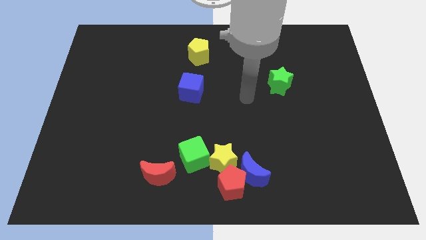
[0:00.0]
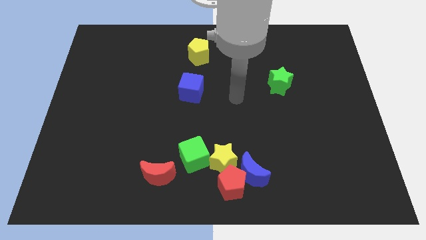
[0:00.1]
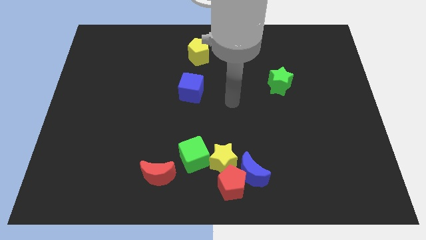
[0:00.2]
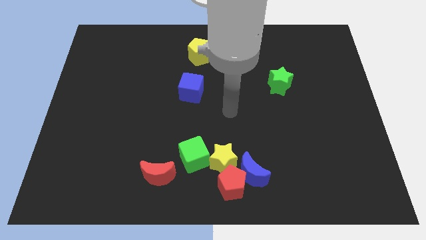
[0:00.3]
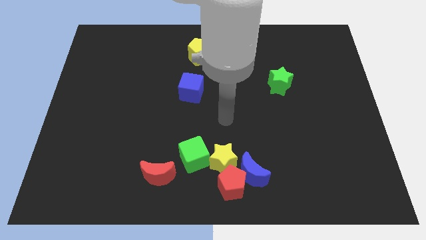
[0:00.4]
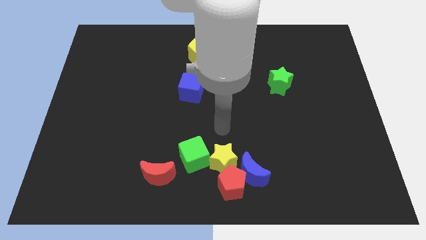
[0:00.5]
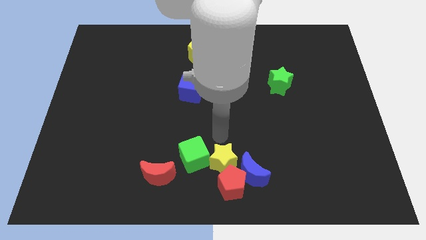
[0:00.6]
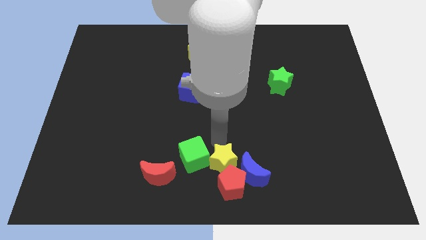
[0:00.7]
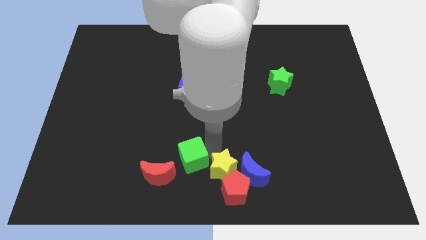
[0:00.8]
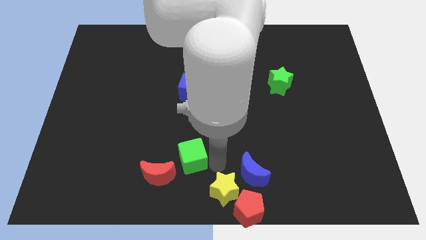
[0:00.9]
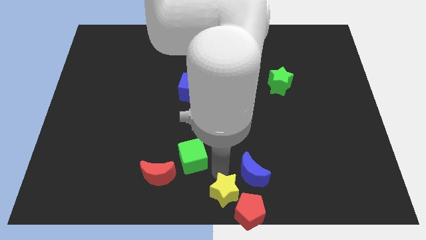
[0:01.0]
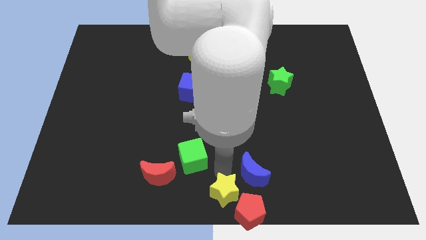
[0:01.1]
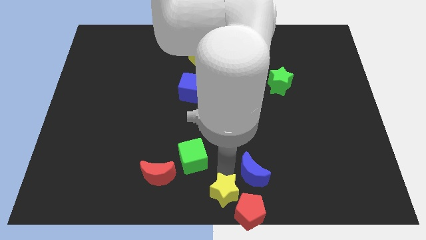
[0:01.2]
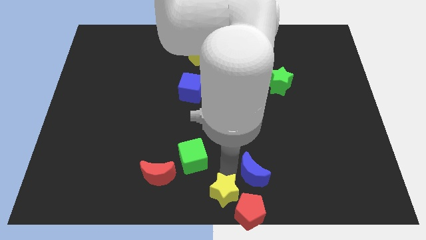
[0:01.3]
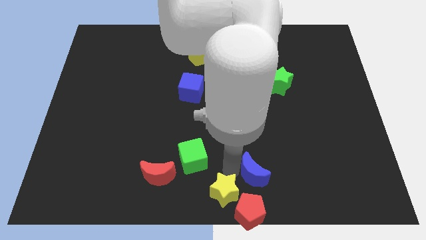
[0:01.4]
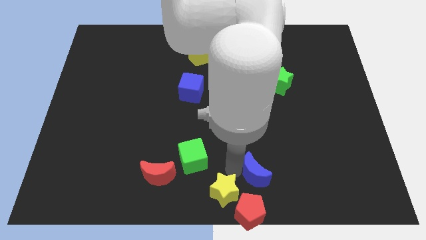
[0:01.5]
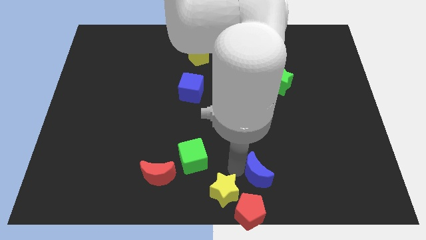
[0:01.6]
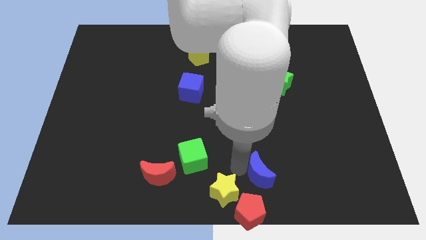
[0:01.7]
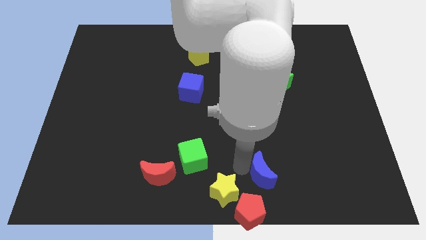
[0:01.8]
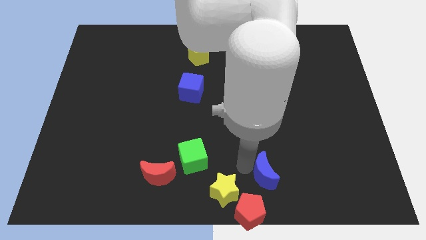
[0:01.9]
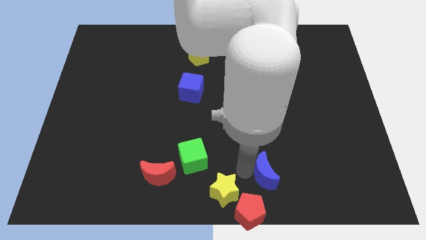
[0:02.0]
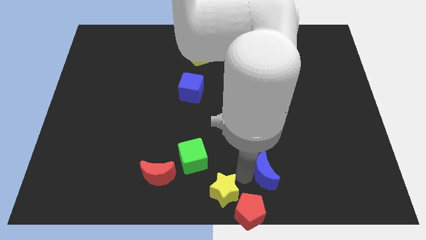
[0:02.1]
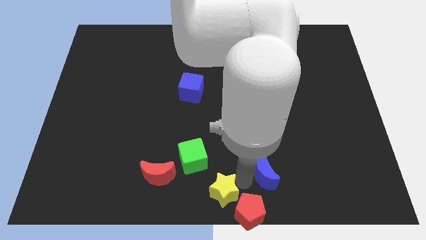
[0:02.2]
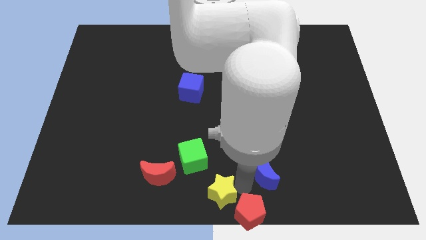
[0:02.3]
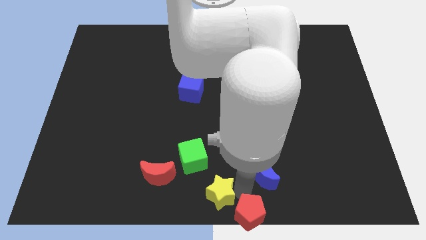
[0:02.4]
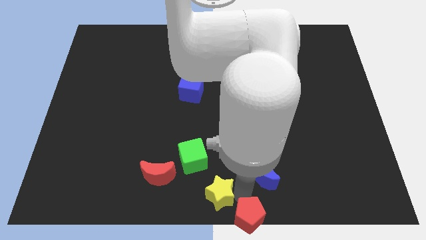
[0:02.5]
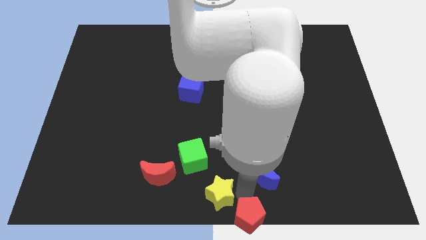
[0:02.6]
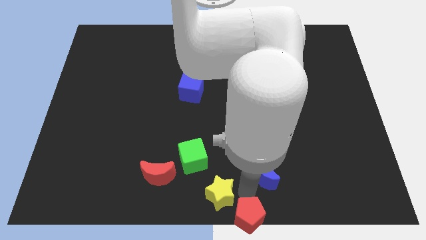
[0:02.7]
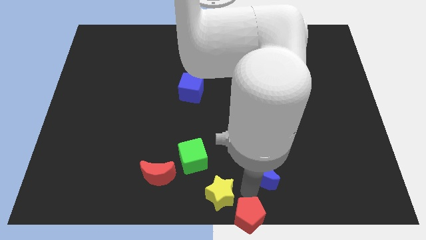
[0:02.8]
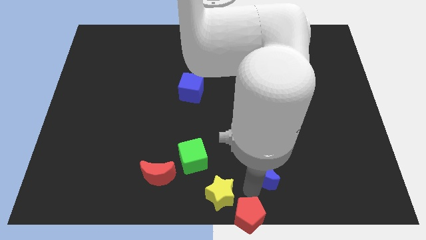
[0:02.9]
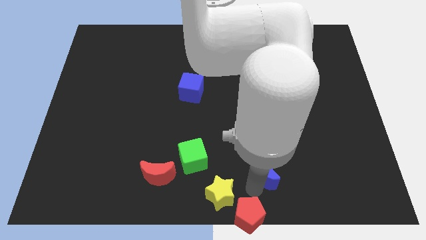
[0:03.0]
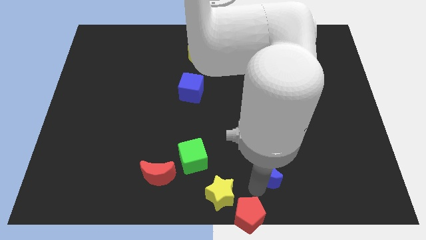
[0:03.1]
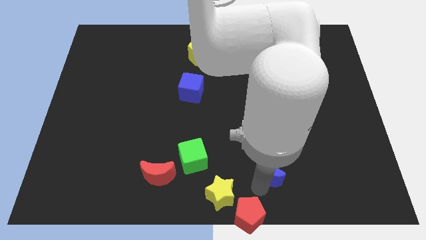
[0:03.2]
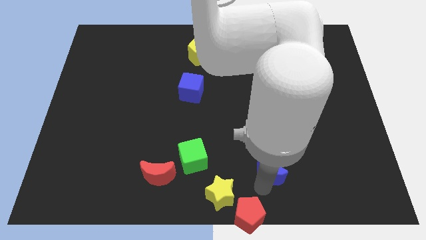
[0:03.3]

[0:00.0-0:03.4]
separate the blue moon from the red pentagon and yellow star

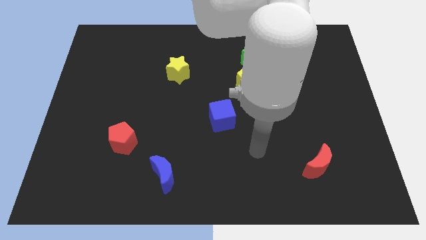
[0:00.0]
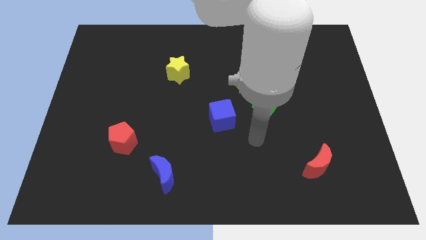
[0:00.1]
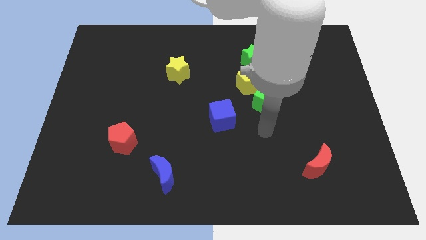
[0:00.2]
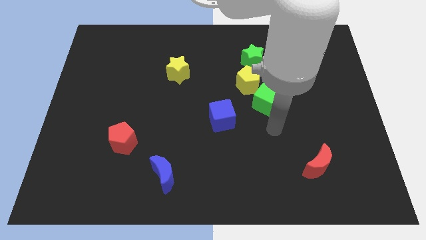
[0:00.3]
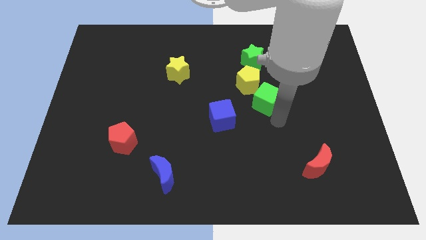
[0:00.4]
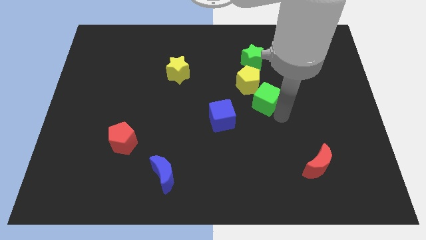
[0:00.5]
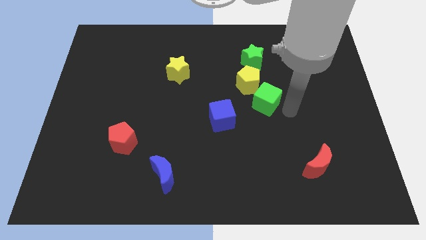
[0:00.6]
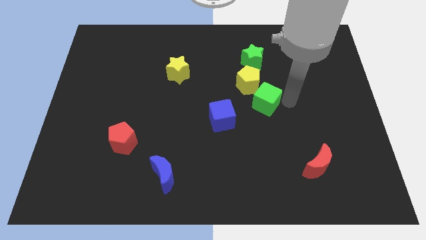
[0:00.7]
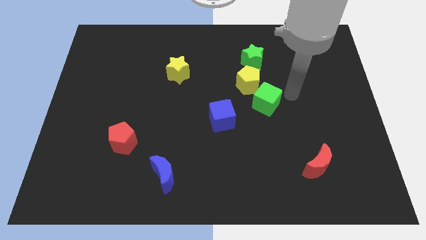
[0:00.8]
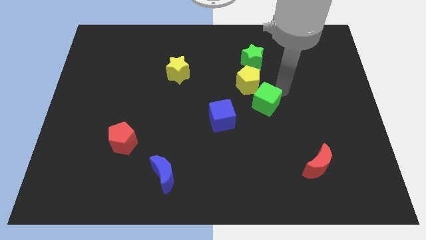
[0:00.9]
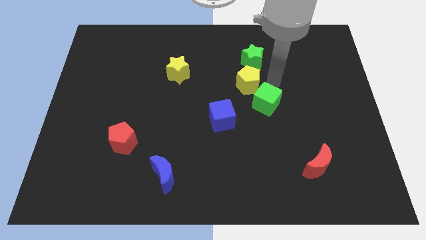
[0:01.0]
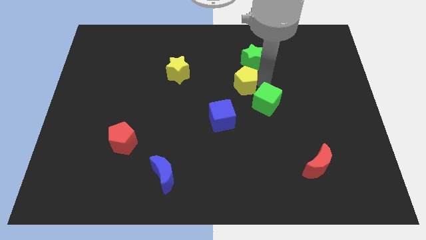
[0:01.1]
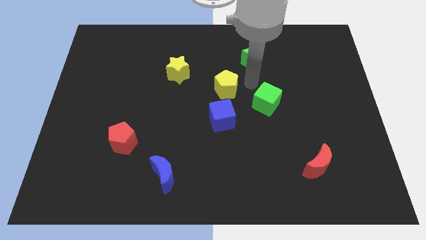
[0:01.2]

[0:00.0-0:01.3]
pull the green cube apart from the yellow pentagon

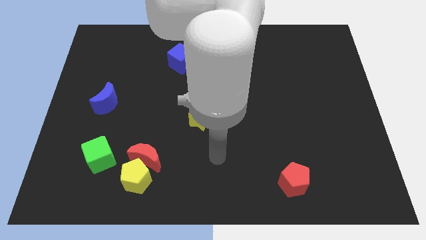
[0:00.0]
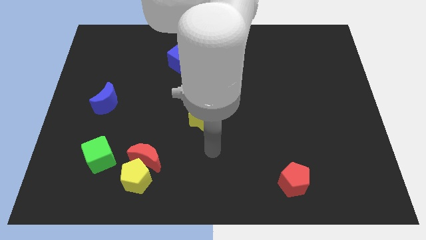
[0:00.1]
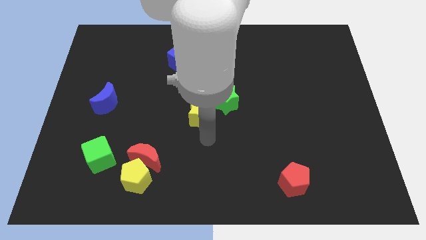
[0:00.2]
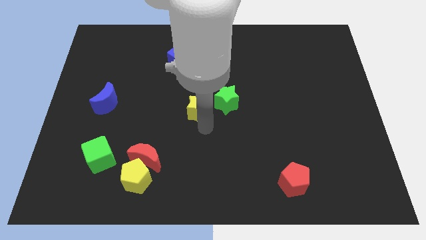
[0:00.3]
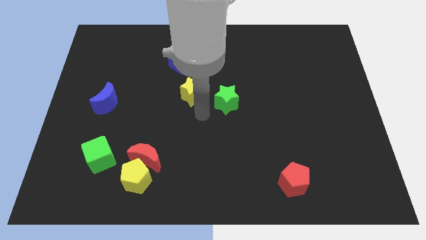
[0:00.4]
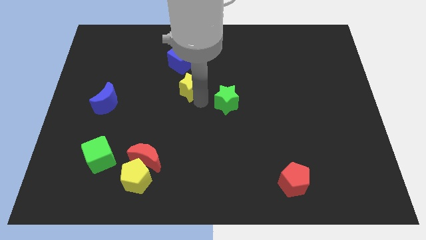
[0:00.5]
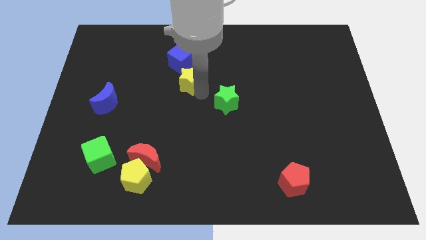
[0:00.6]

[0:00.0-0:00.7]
pull the green star apart from the yellow star

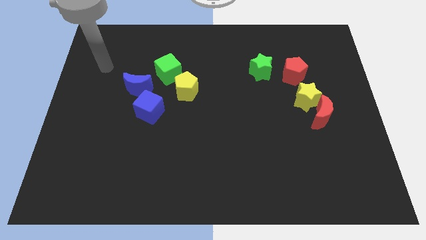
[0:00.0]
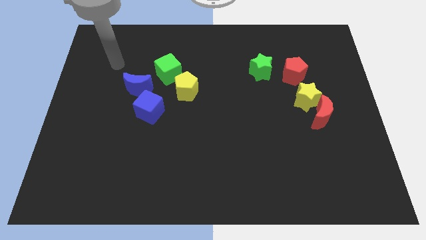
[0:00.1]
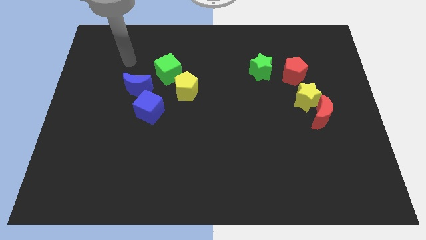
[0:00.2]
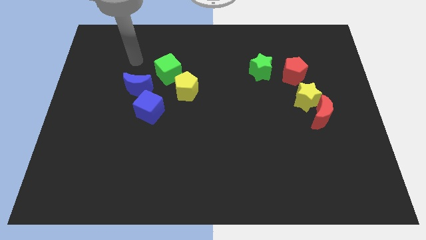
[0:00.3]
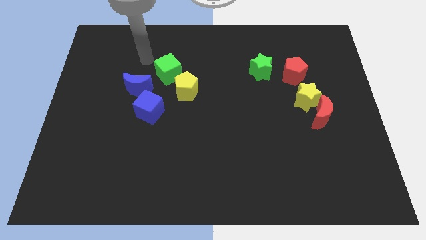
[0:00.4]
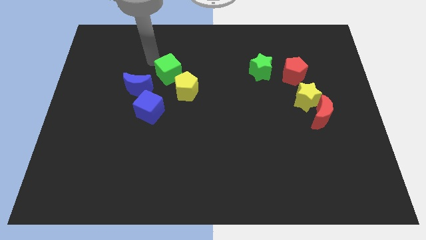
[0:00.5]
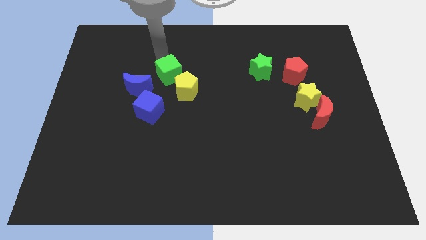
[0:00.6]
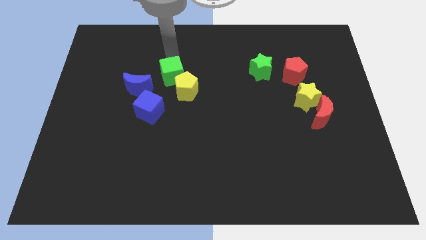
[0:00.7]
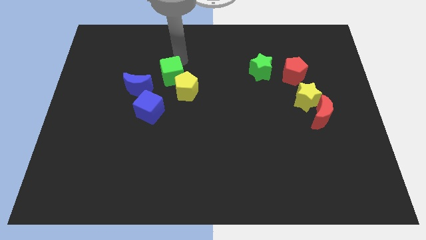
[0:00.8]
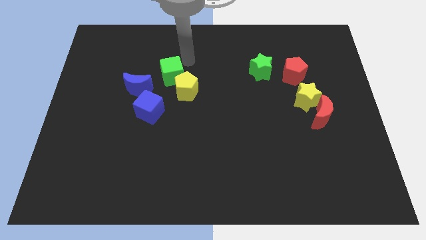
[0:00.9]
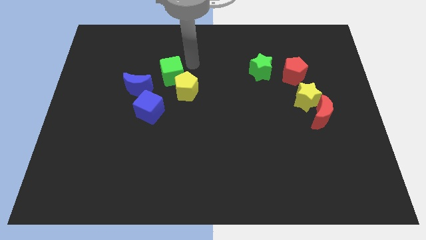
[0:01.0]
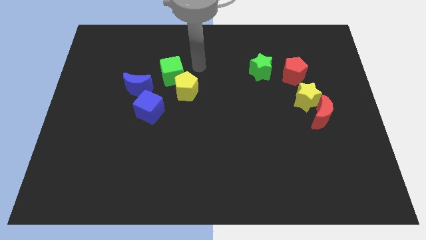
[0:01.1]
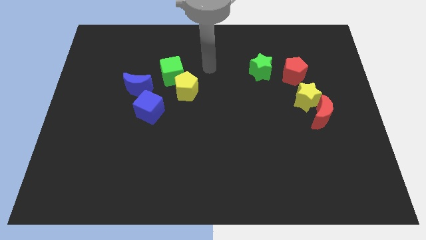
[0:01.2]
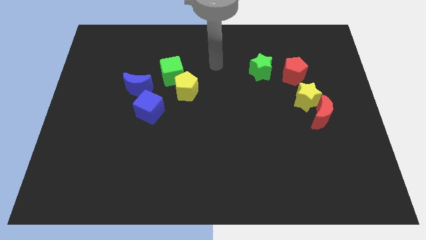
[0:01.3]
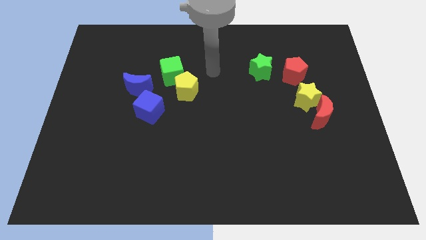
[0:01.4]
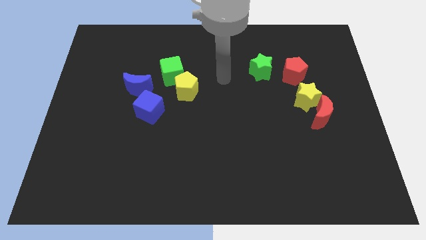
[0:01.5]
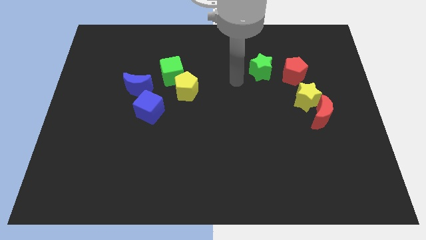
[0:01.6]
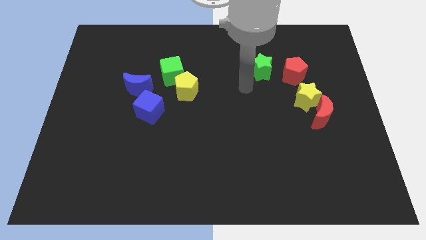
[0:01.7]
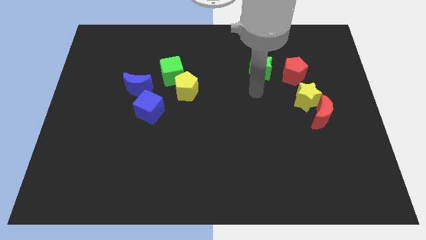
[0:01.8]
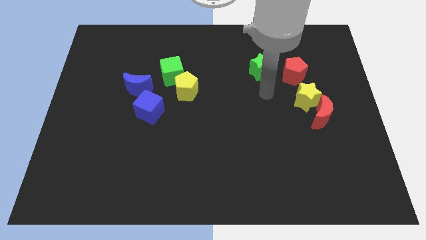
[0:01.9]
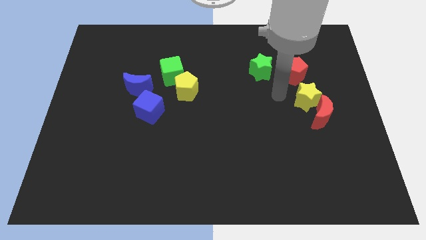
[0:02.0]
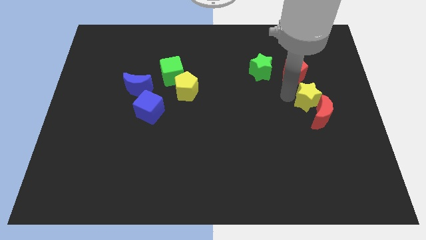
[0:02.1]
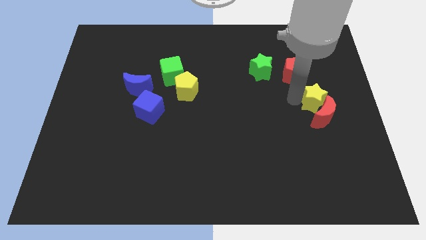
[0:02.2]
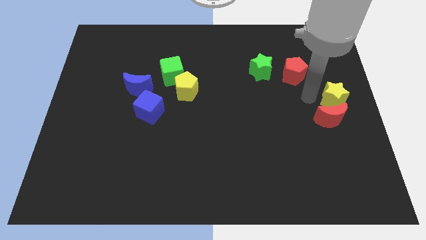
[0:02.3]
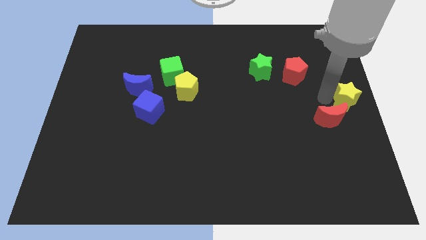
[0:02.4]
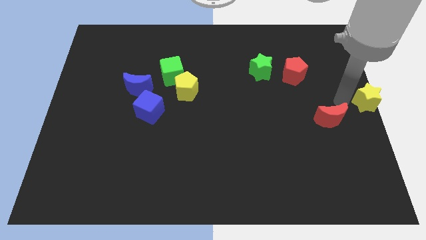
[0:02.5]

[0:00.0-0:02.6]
separate the red moon from the yellow star

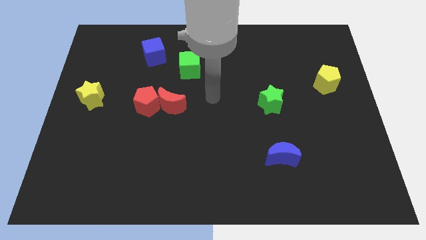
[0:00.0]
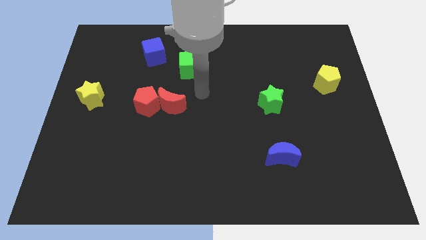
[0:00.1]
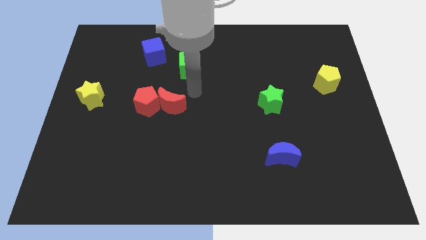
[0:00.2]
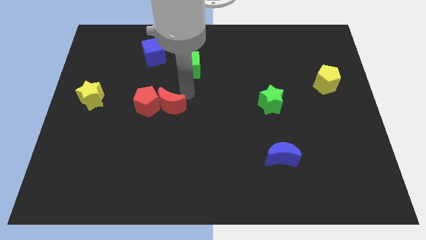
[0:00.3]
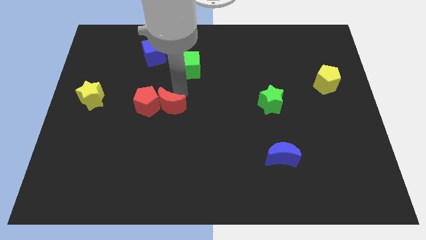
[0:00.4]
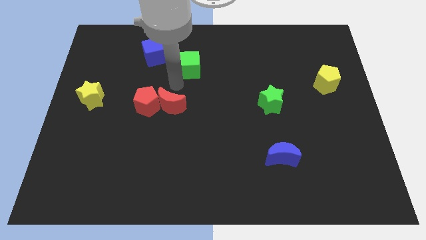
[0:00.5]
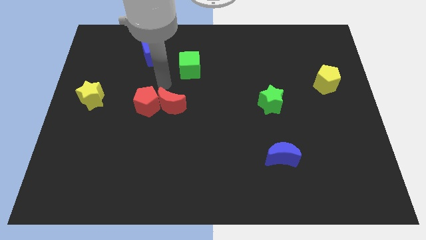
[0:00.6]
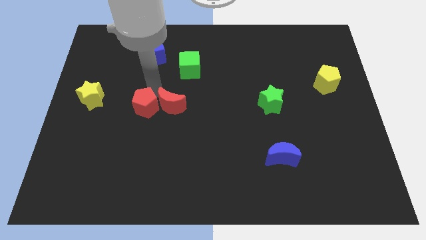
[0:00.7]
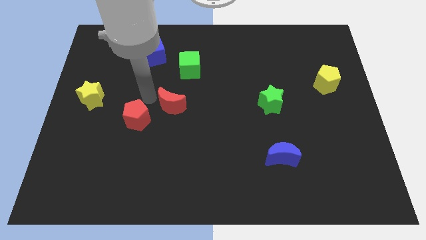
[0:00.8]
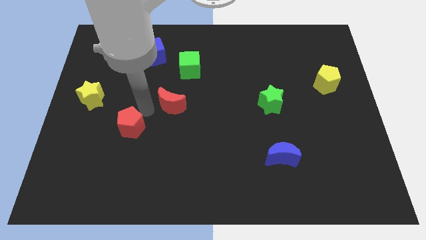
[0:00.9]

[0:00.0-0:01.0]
pull the red moon apart from the red pentagon

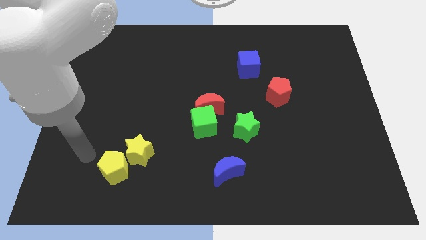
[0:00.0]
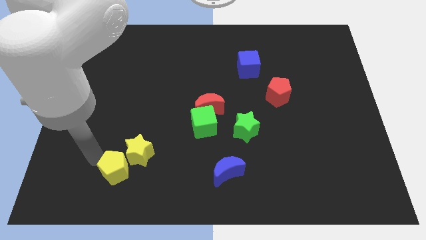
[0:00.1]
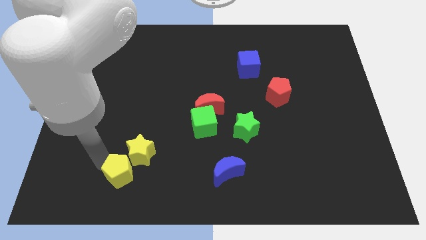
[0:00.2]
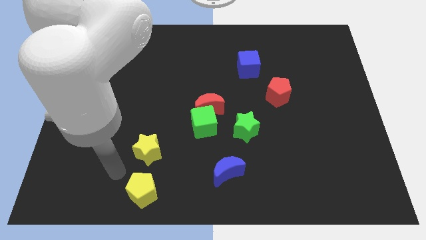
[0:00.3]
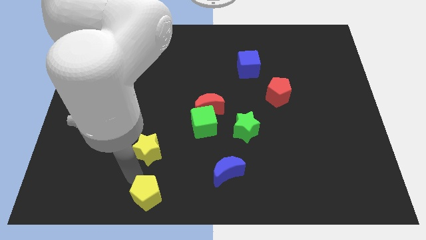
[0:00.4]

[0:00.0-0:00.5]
move the yellow star away from the yellow pentagon
